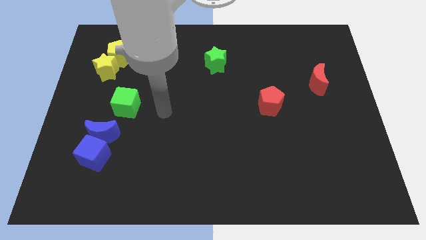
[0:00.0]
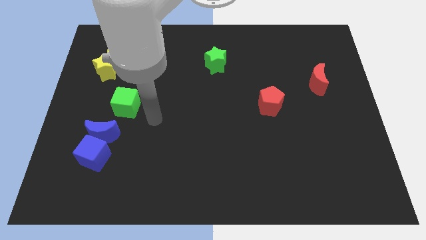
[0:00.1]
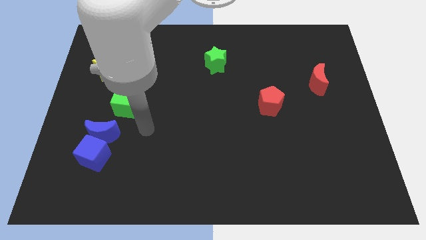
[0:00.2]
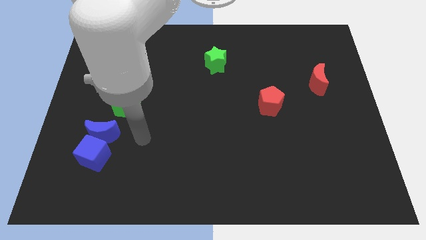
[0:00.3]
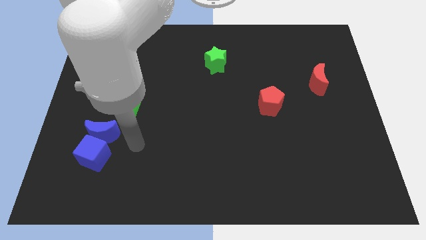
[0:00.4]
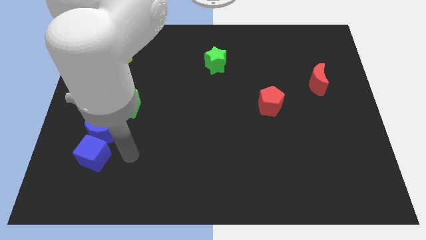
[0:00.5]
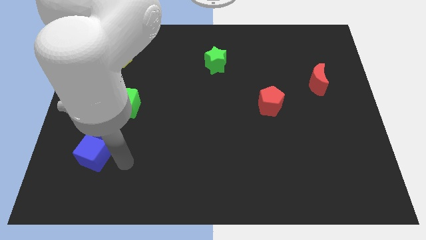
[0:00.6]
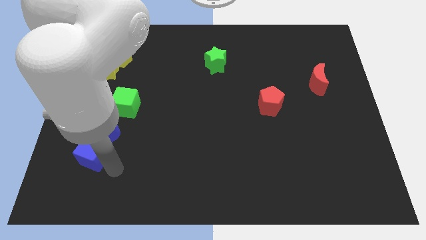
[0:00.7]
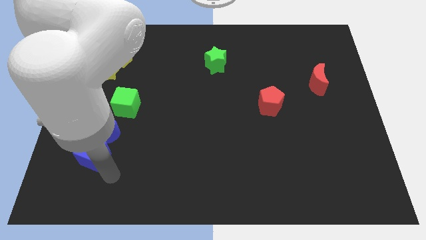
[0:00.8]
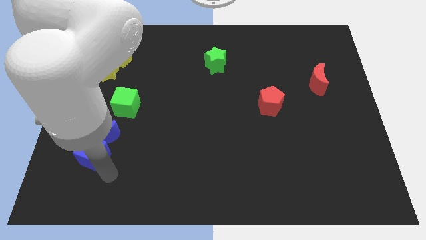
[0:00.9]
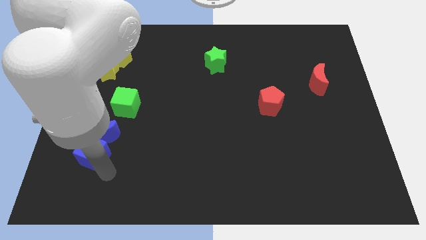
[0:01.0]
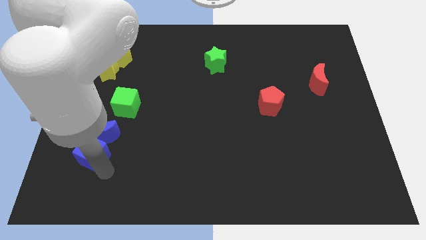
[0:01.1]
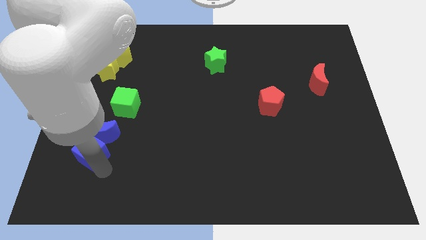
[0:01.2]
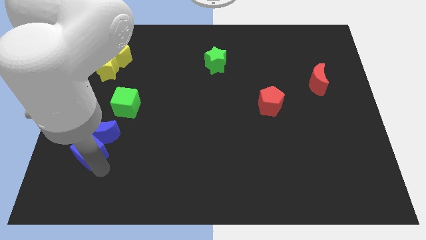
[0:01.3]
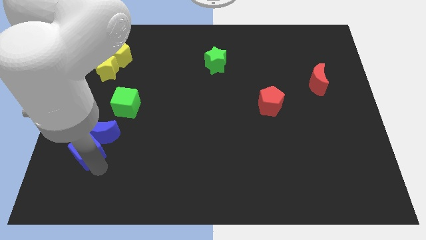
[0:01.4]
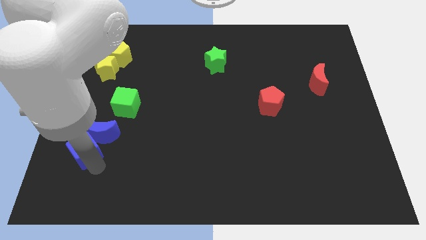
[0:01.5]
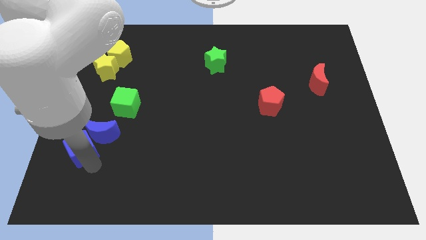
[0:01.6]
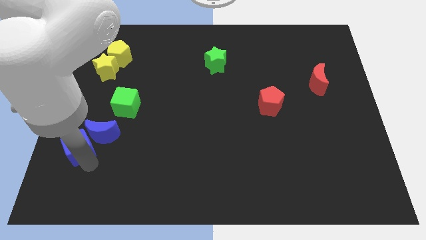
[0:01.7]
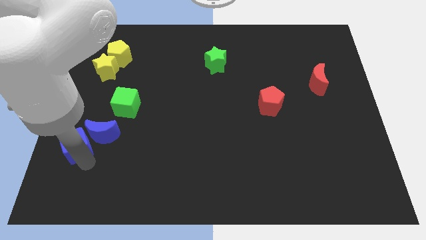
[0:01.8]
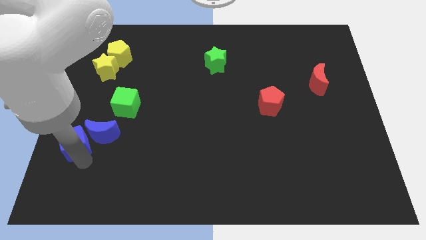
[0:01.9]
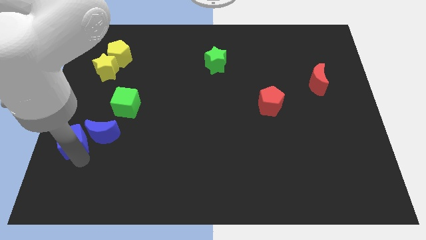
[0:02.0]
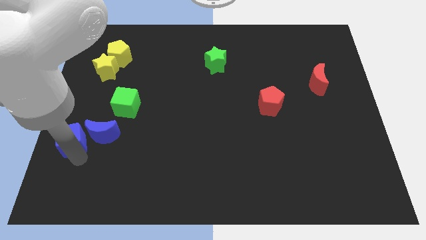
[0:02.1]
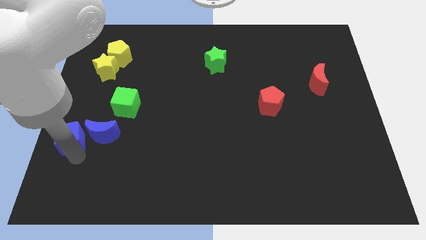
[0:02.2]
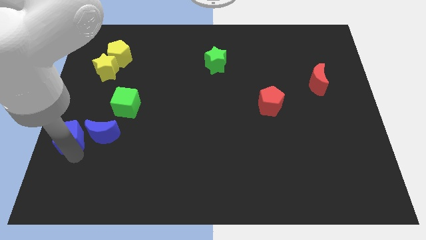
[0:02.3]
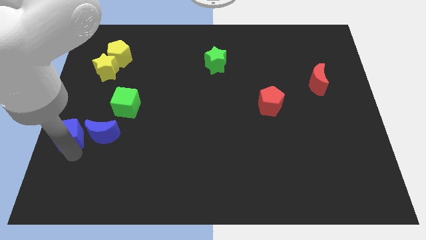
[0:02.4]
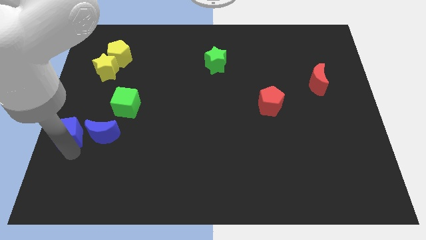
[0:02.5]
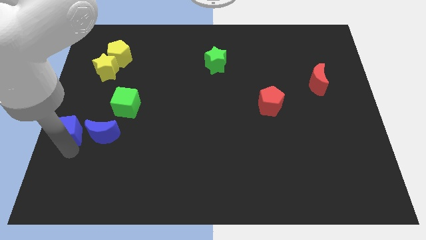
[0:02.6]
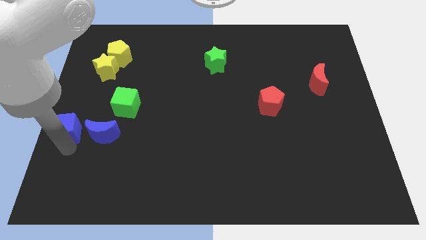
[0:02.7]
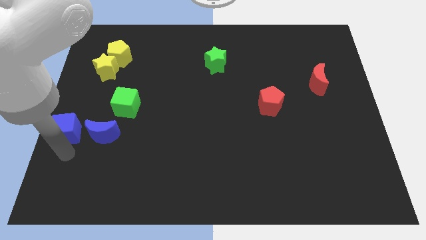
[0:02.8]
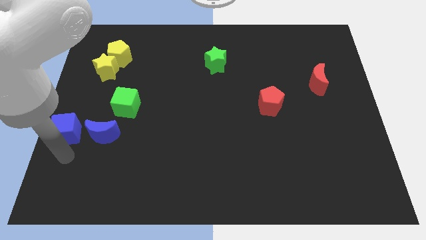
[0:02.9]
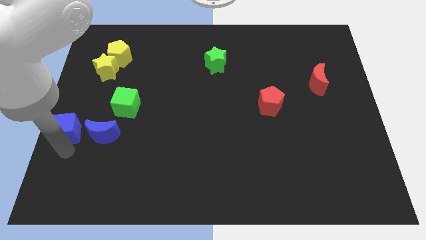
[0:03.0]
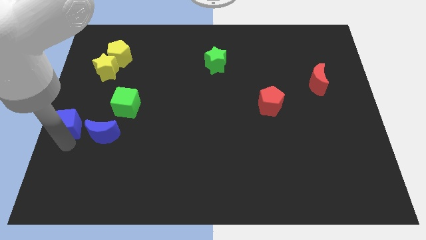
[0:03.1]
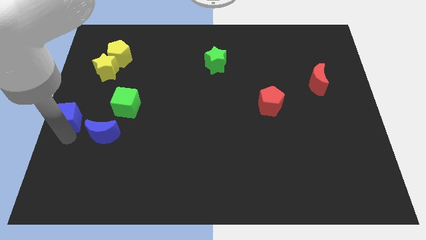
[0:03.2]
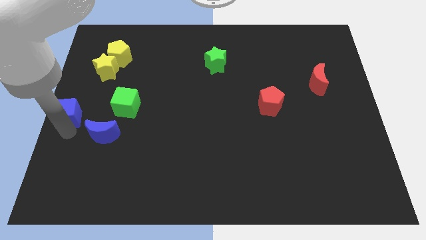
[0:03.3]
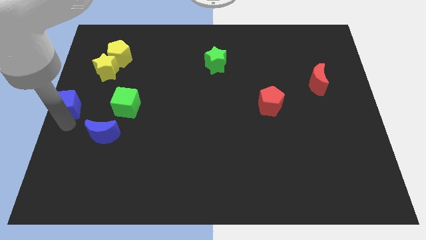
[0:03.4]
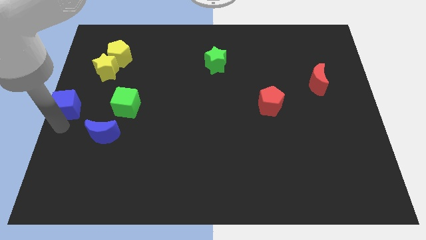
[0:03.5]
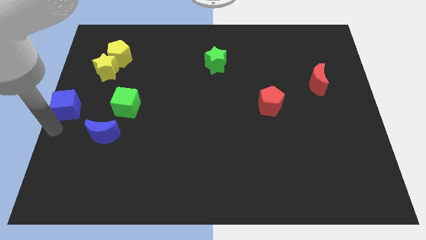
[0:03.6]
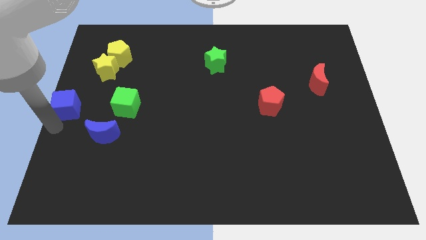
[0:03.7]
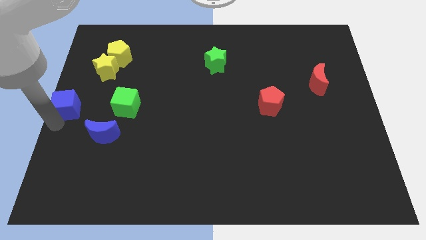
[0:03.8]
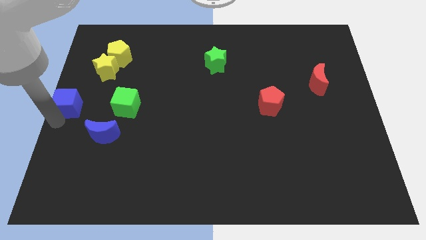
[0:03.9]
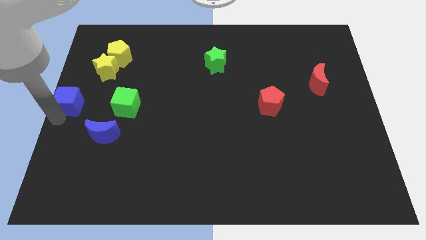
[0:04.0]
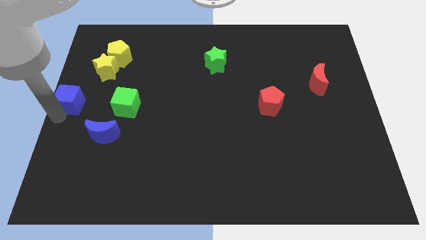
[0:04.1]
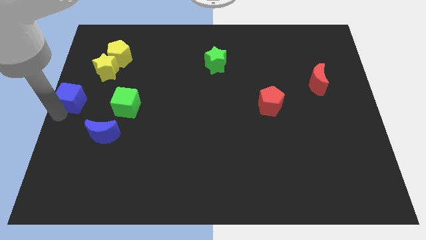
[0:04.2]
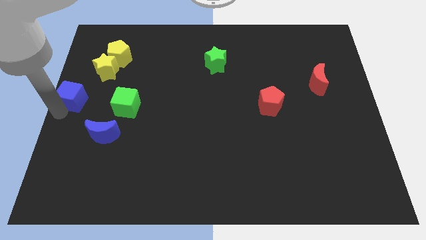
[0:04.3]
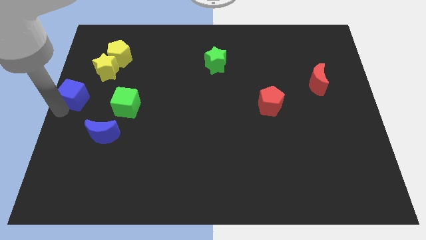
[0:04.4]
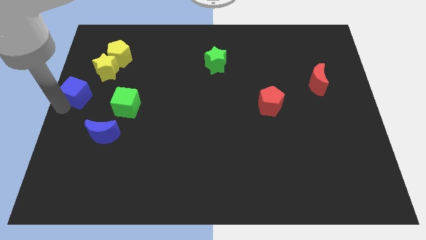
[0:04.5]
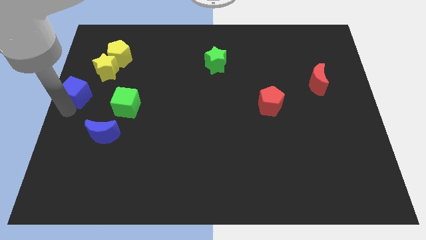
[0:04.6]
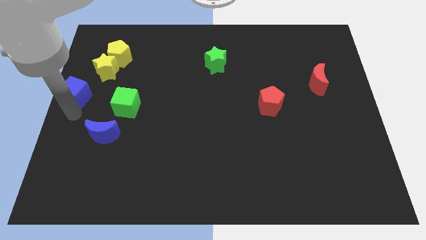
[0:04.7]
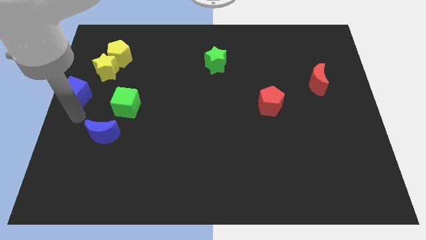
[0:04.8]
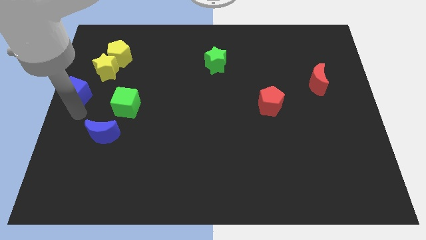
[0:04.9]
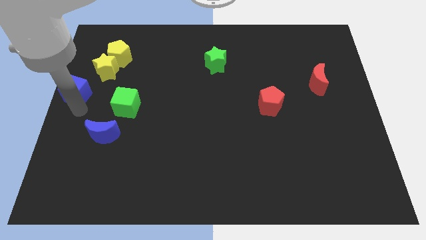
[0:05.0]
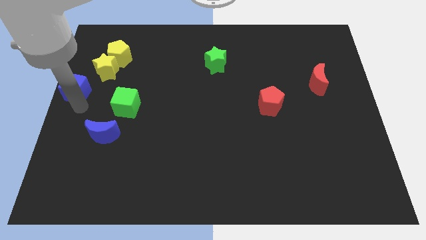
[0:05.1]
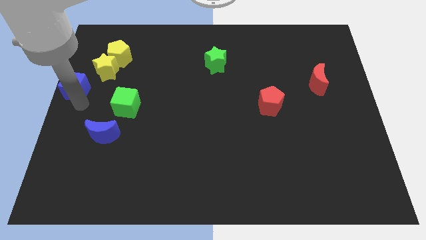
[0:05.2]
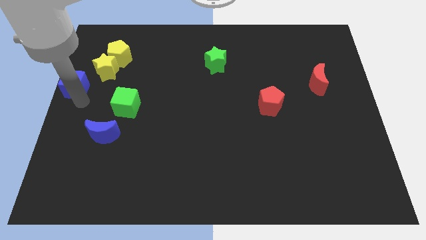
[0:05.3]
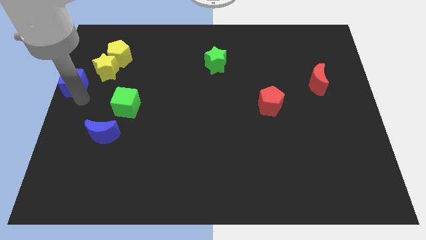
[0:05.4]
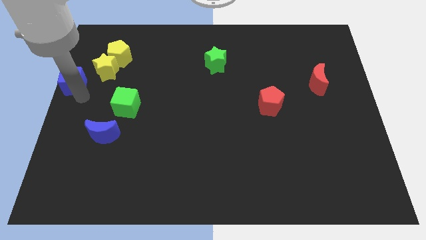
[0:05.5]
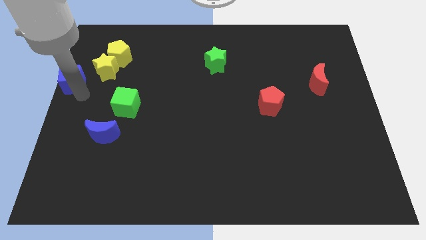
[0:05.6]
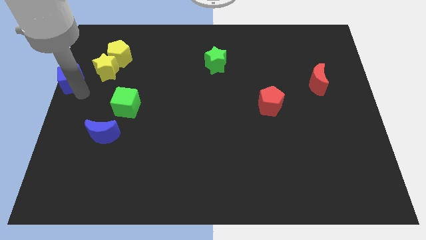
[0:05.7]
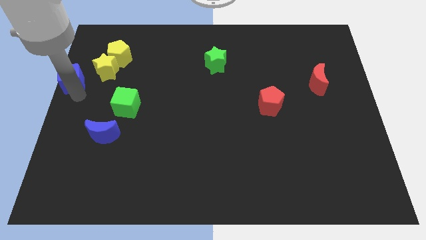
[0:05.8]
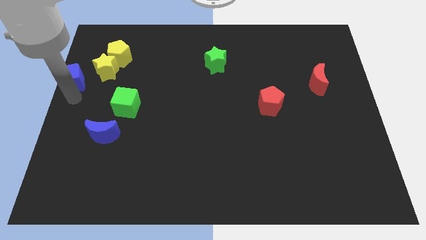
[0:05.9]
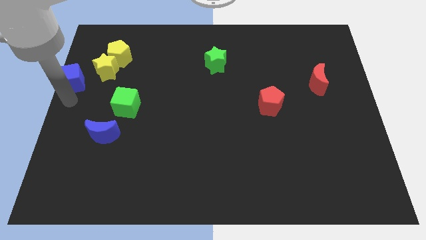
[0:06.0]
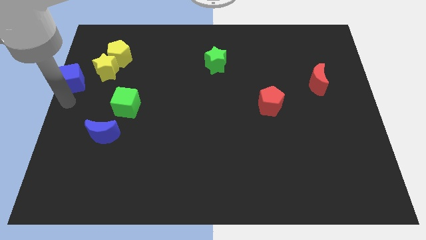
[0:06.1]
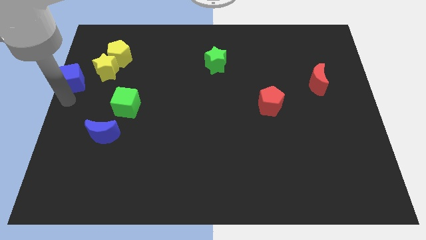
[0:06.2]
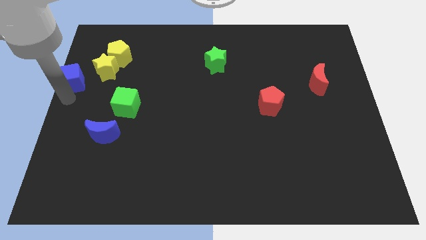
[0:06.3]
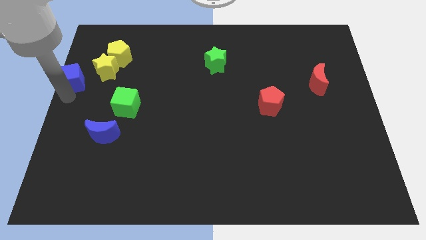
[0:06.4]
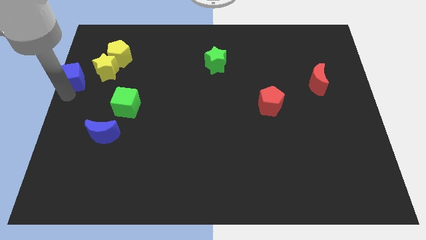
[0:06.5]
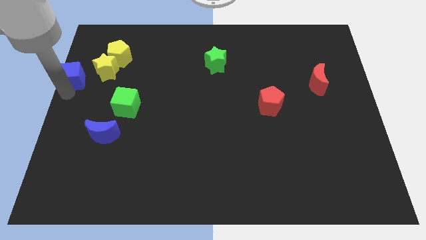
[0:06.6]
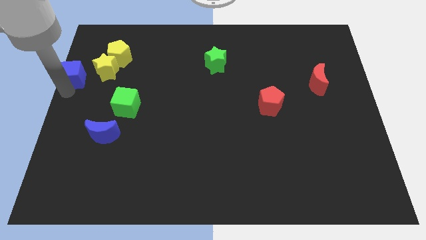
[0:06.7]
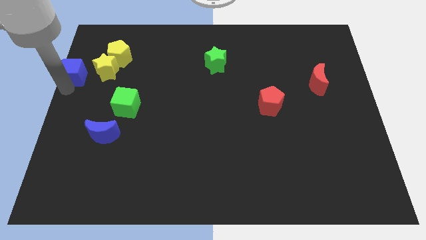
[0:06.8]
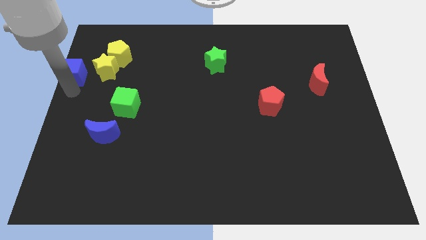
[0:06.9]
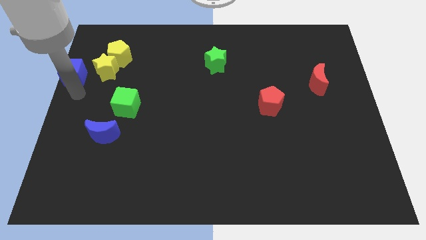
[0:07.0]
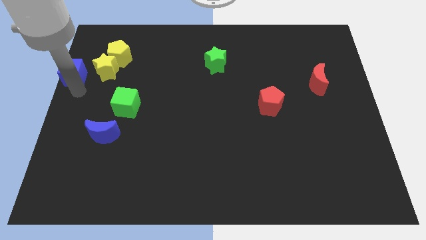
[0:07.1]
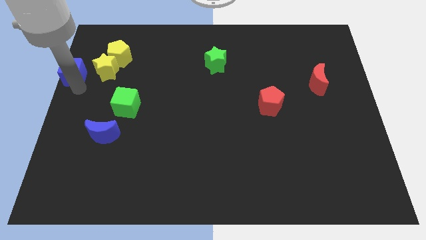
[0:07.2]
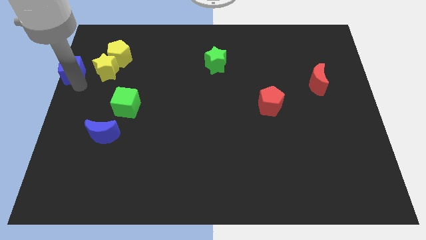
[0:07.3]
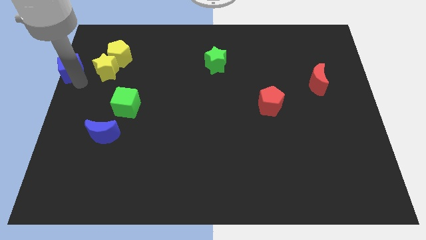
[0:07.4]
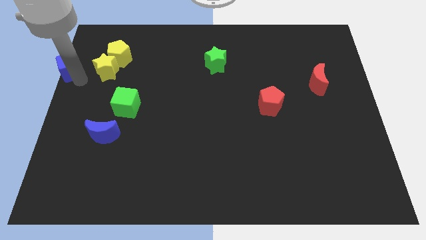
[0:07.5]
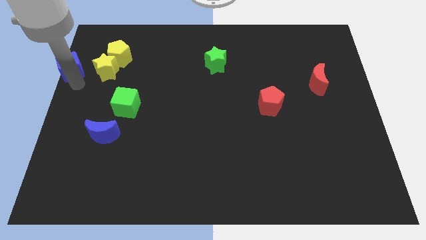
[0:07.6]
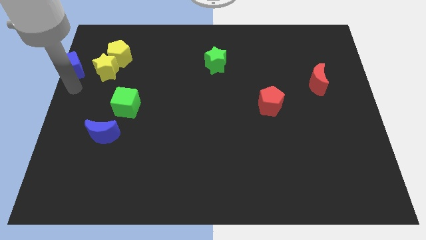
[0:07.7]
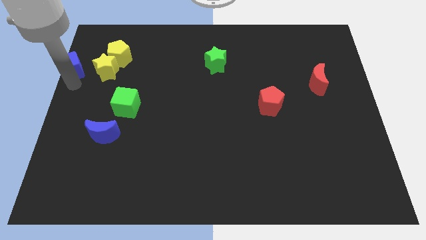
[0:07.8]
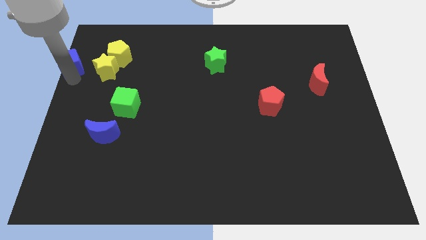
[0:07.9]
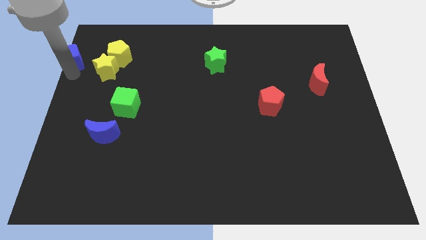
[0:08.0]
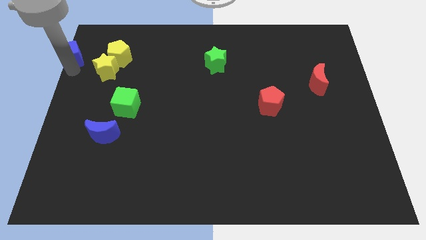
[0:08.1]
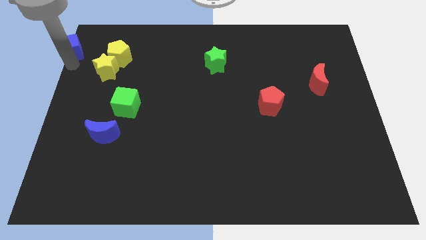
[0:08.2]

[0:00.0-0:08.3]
put the blue cube to the upper left corner
